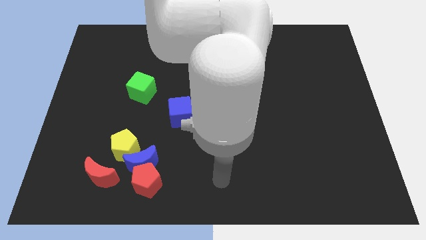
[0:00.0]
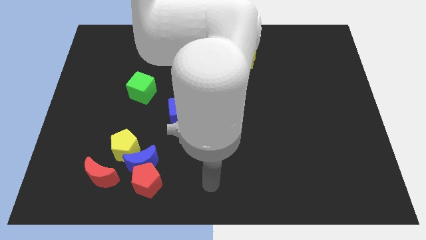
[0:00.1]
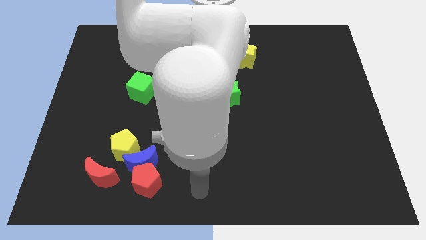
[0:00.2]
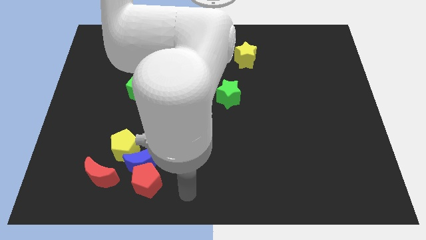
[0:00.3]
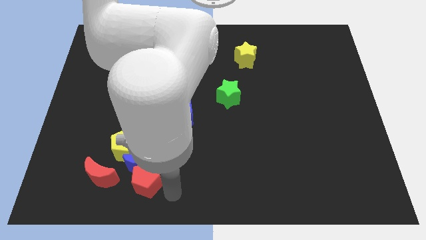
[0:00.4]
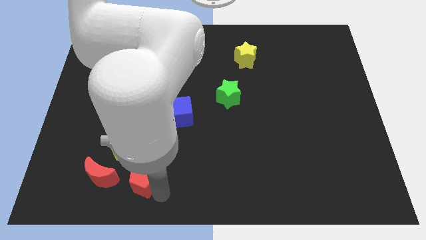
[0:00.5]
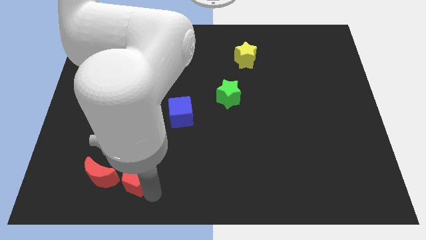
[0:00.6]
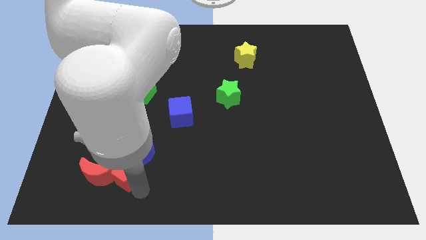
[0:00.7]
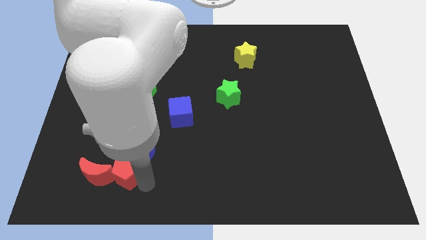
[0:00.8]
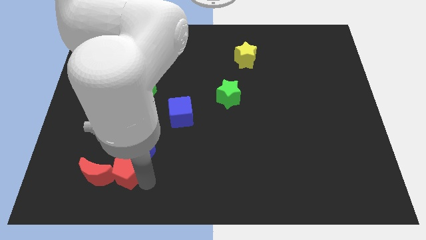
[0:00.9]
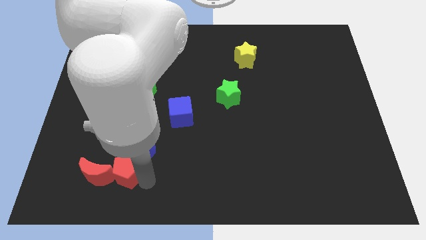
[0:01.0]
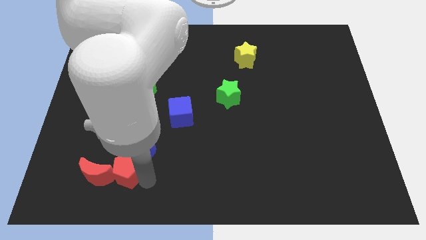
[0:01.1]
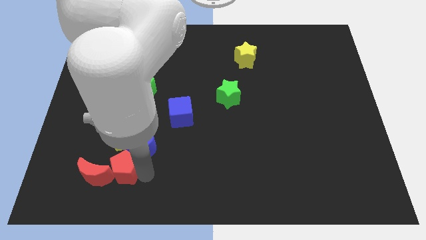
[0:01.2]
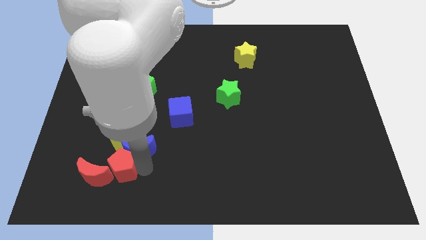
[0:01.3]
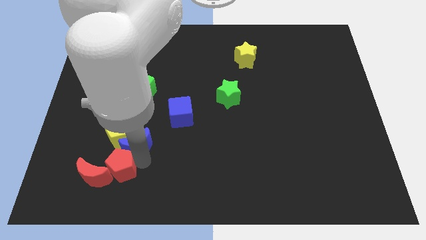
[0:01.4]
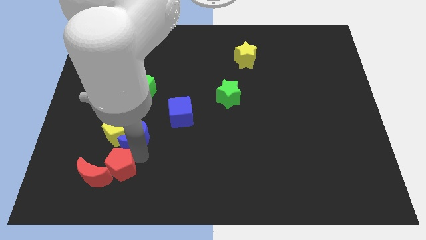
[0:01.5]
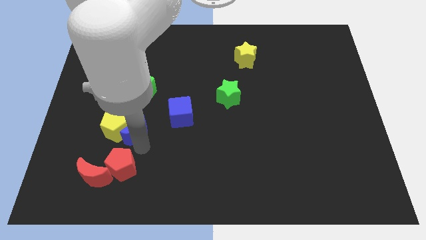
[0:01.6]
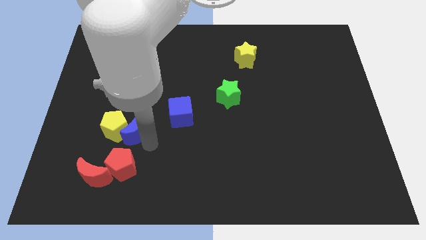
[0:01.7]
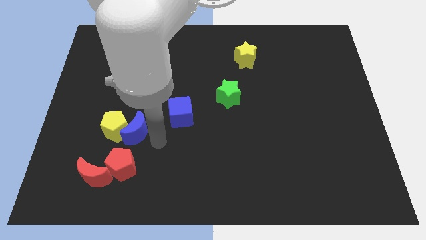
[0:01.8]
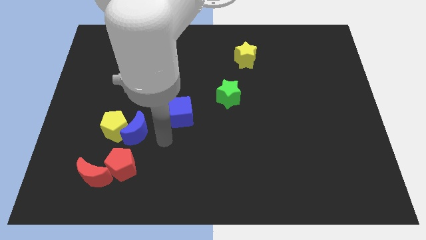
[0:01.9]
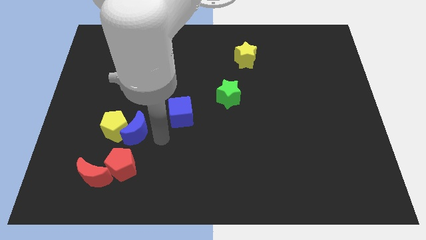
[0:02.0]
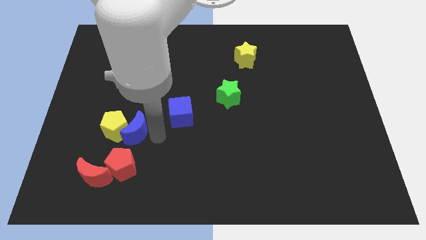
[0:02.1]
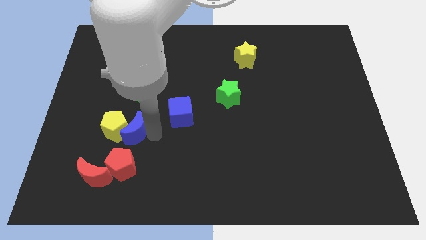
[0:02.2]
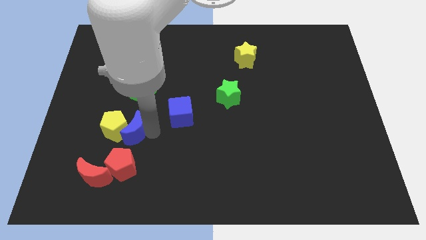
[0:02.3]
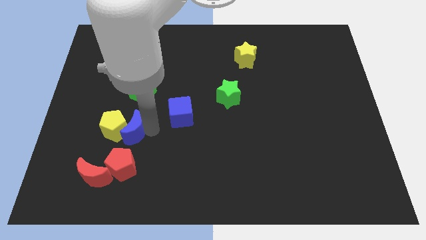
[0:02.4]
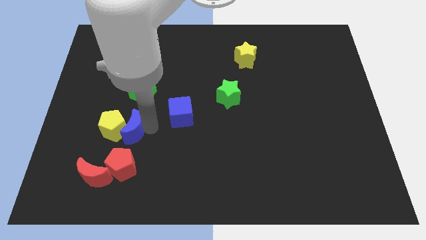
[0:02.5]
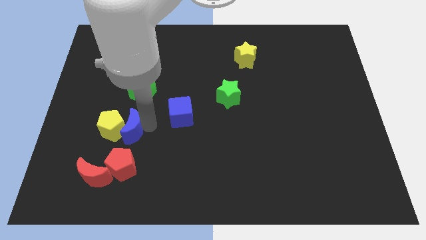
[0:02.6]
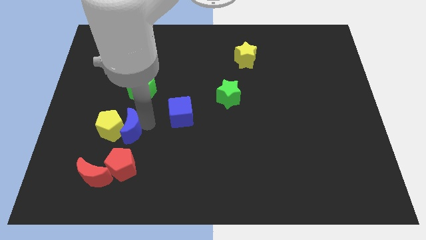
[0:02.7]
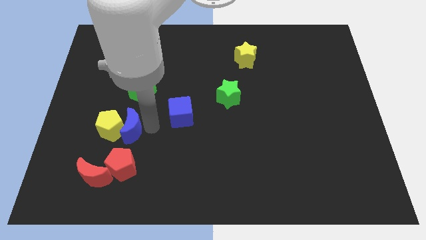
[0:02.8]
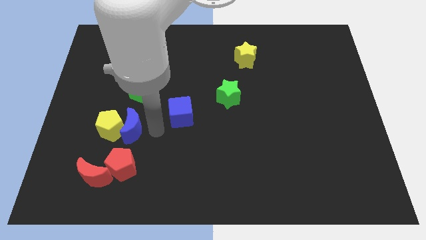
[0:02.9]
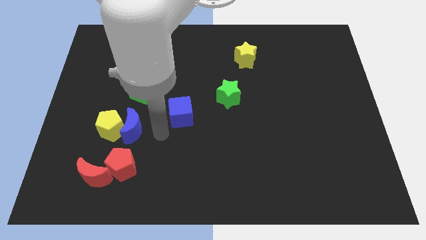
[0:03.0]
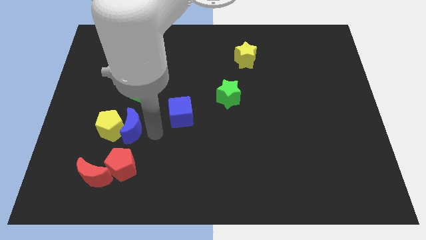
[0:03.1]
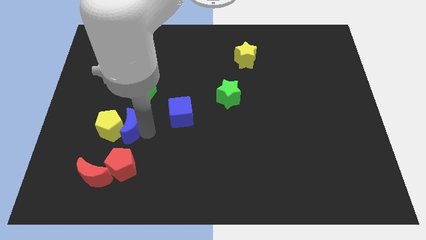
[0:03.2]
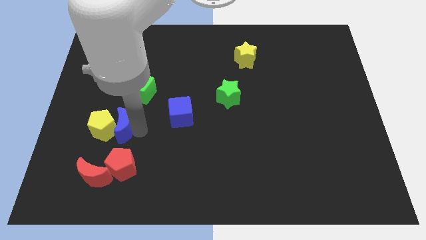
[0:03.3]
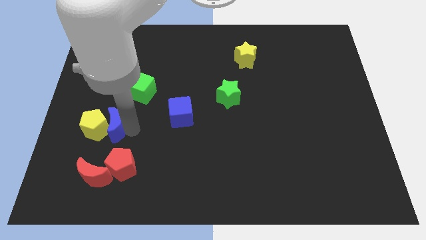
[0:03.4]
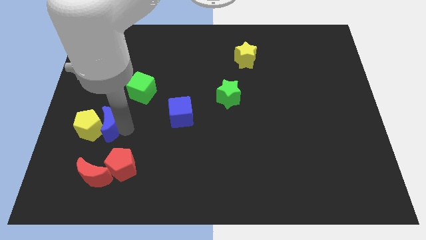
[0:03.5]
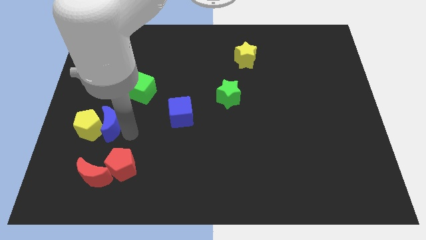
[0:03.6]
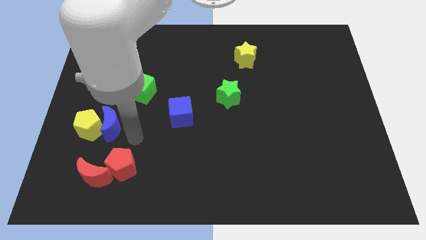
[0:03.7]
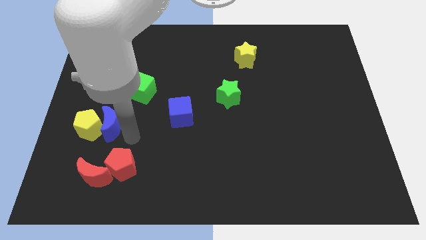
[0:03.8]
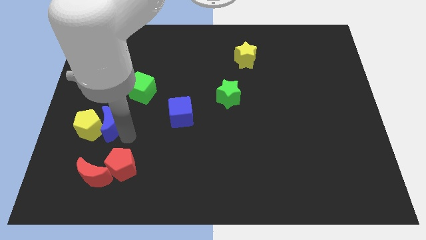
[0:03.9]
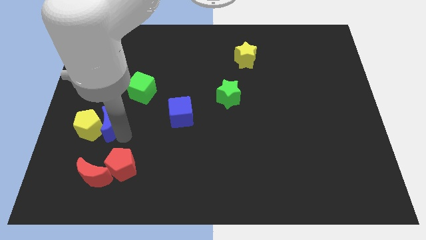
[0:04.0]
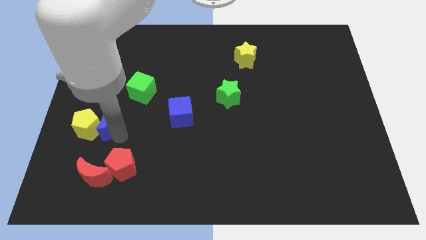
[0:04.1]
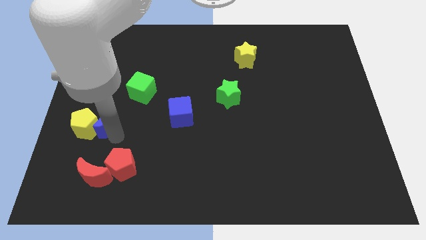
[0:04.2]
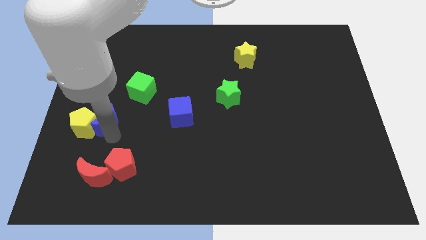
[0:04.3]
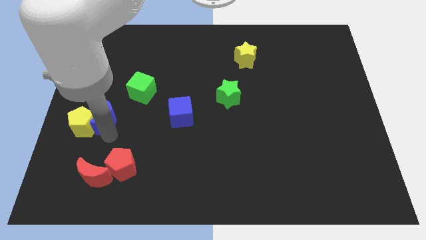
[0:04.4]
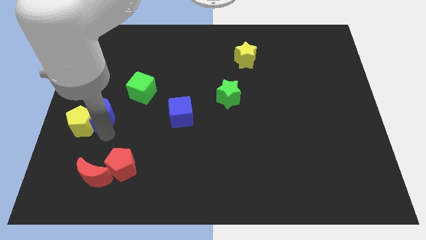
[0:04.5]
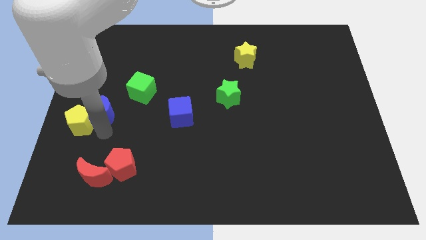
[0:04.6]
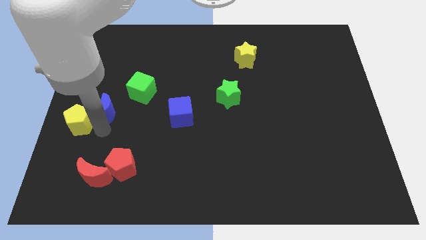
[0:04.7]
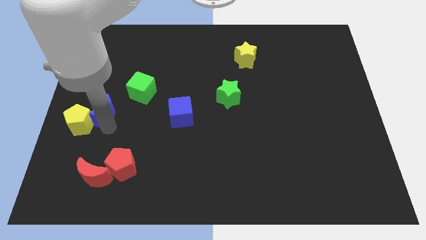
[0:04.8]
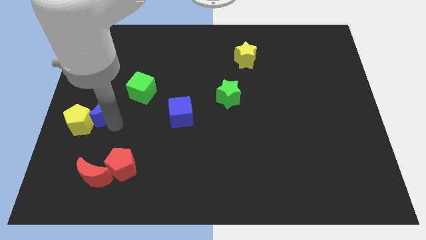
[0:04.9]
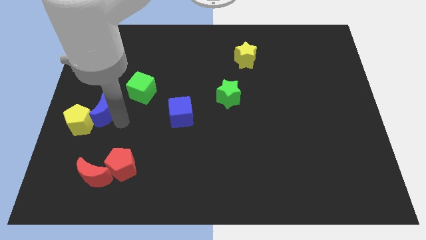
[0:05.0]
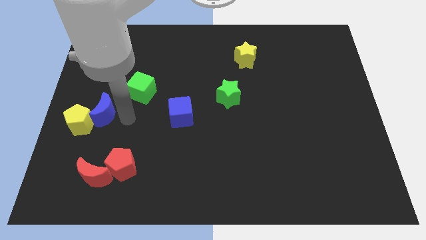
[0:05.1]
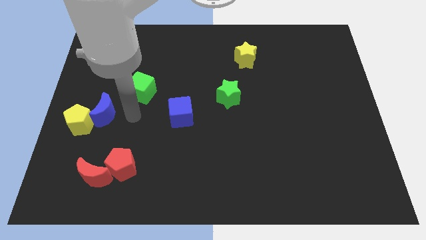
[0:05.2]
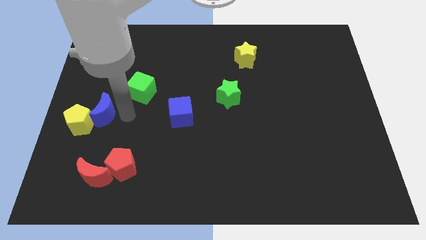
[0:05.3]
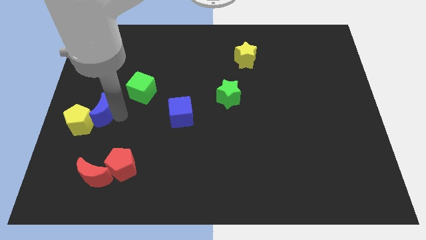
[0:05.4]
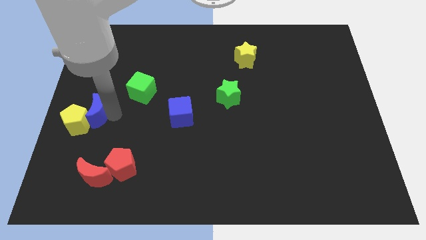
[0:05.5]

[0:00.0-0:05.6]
put the blue moon to the left side

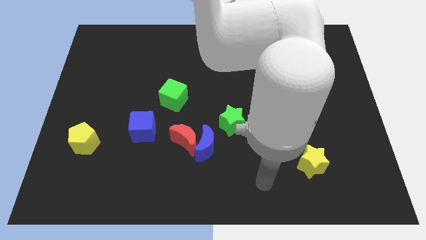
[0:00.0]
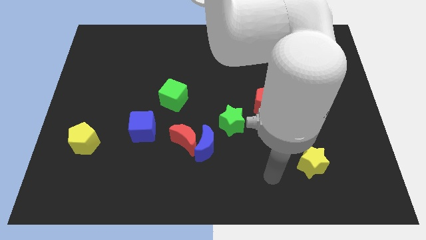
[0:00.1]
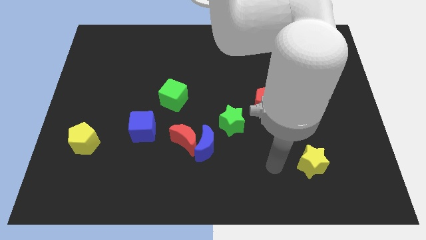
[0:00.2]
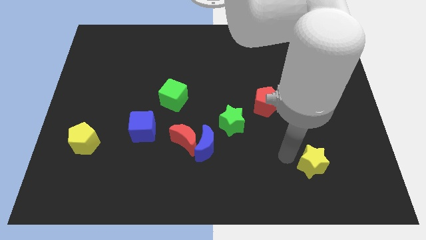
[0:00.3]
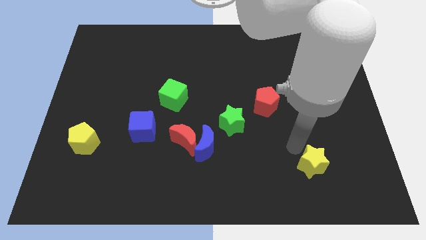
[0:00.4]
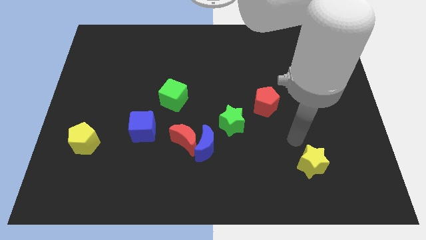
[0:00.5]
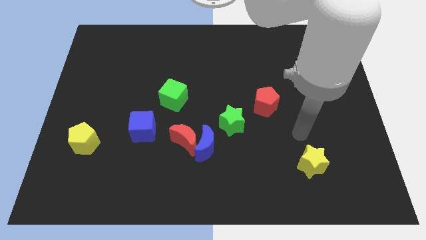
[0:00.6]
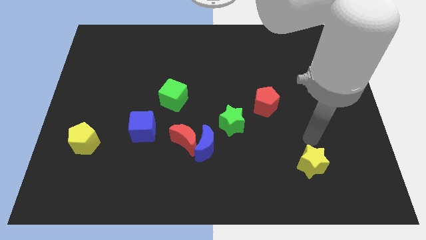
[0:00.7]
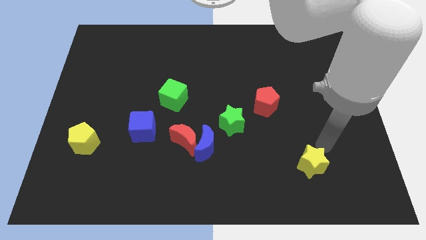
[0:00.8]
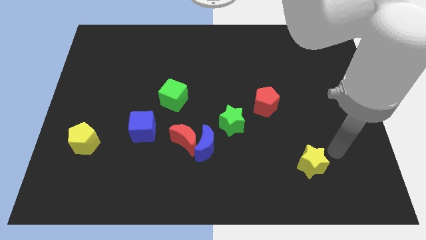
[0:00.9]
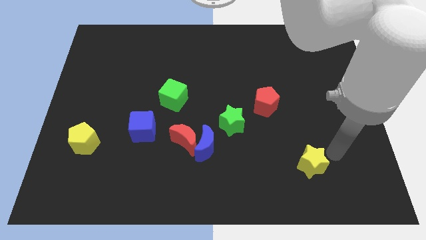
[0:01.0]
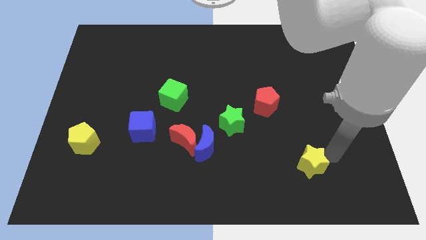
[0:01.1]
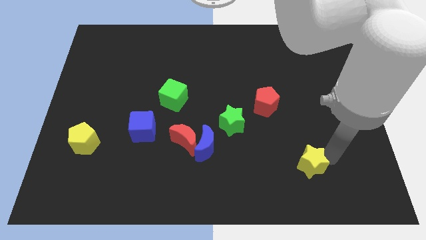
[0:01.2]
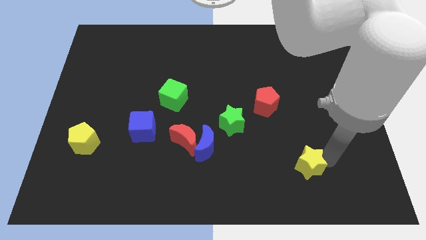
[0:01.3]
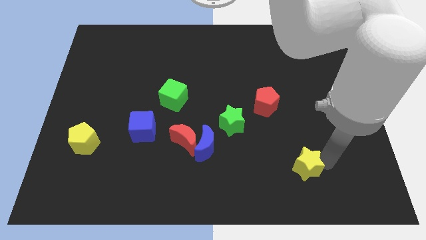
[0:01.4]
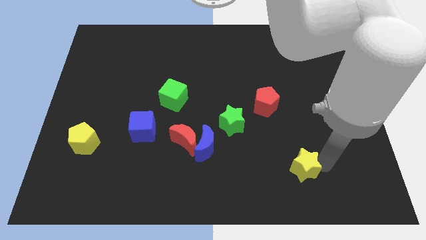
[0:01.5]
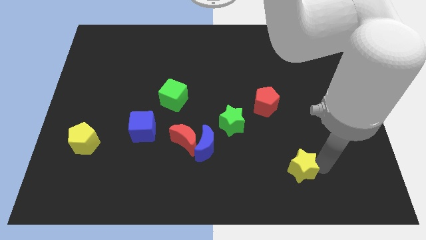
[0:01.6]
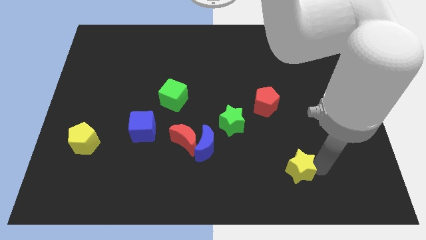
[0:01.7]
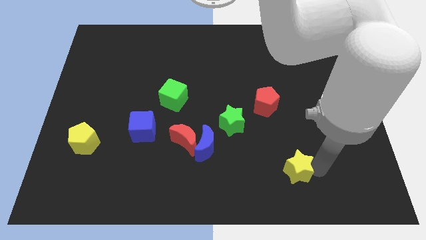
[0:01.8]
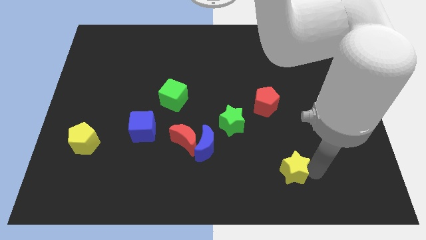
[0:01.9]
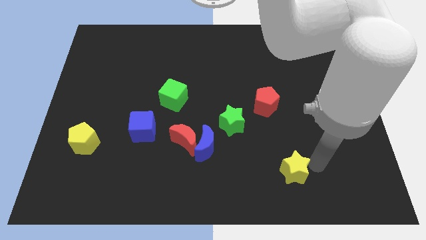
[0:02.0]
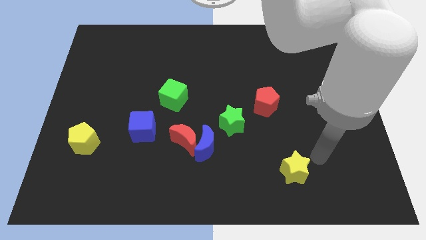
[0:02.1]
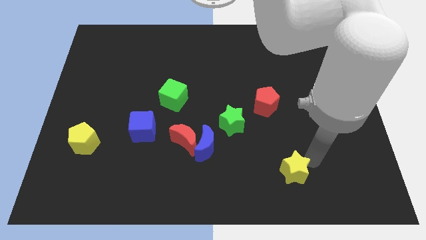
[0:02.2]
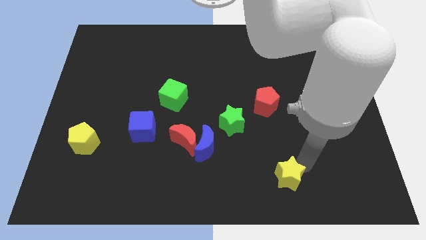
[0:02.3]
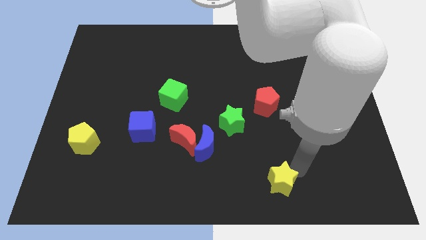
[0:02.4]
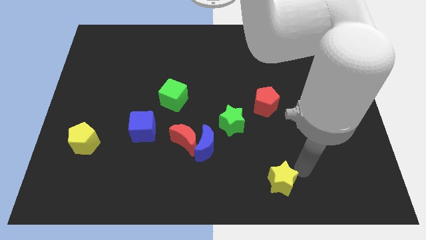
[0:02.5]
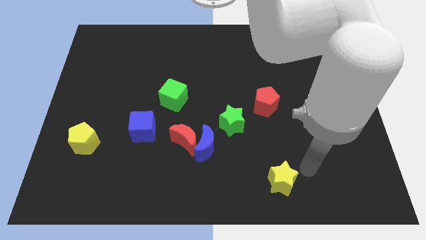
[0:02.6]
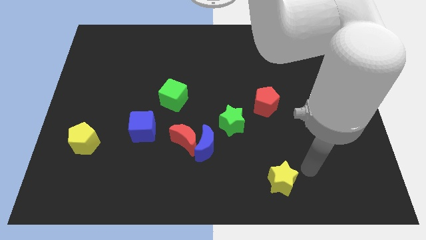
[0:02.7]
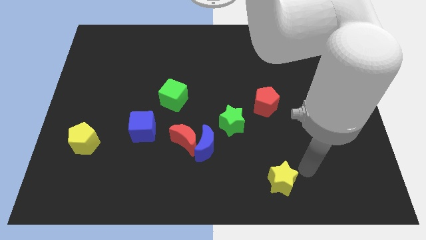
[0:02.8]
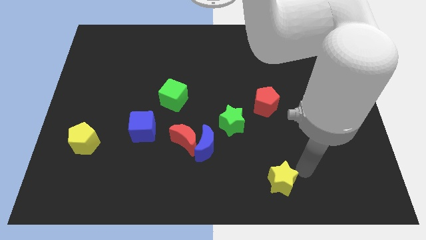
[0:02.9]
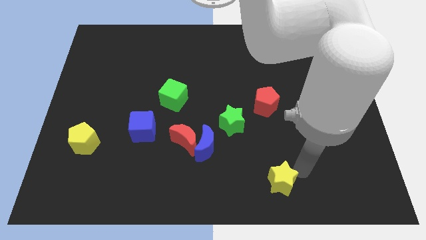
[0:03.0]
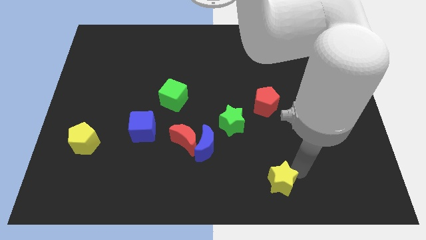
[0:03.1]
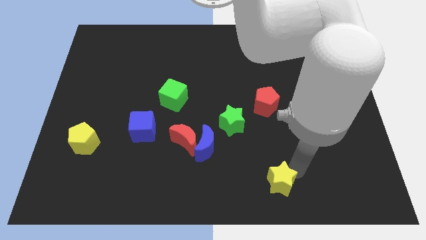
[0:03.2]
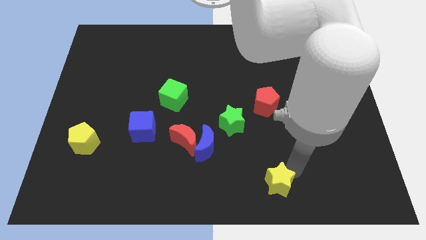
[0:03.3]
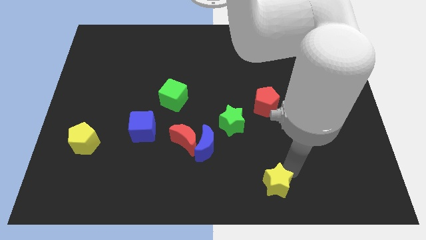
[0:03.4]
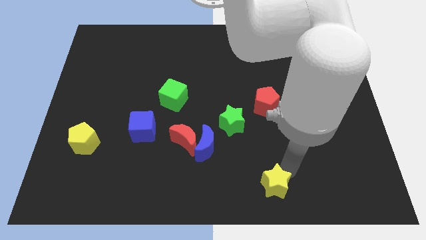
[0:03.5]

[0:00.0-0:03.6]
slide the yellow star to the bottom
